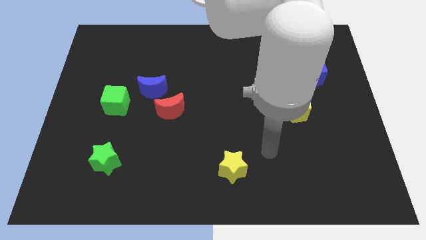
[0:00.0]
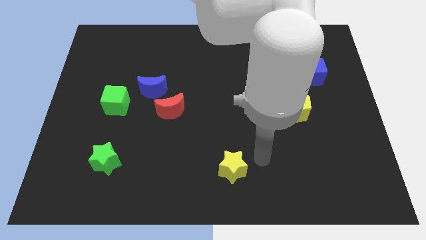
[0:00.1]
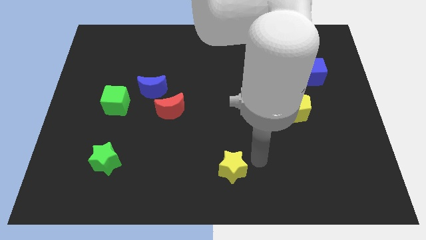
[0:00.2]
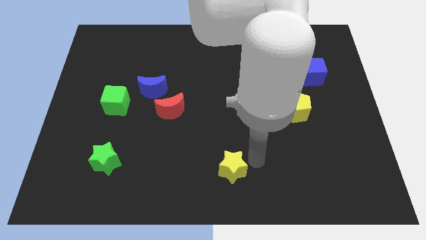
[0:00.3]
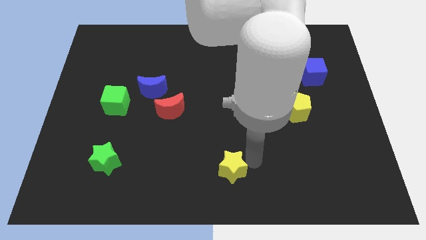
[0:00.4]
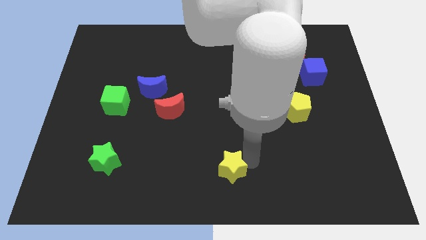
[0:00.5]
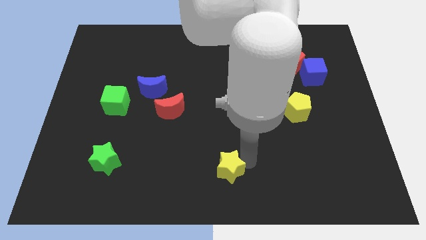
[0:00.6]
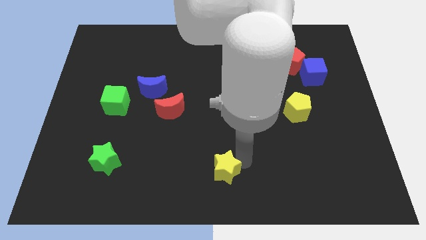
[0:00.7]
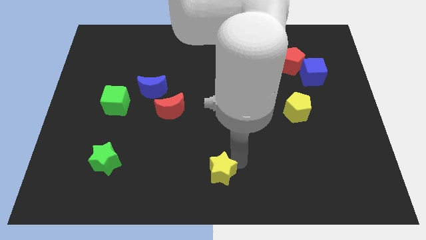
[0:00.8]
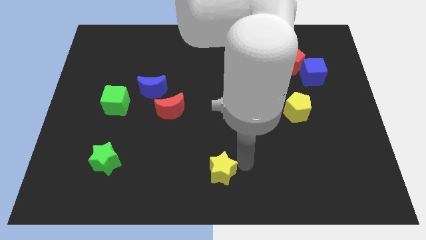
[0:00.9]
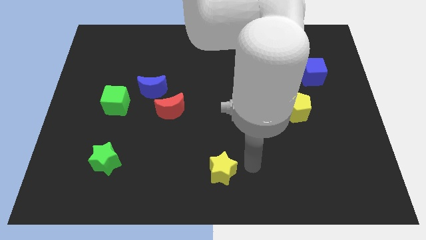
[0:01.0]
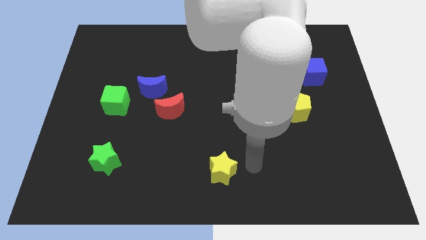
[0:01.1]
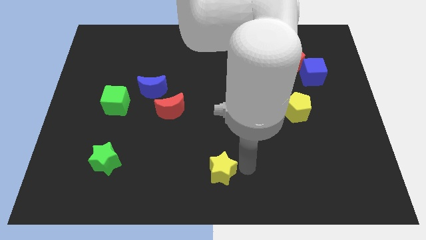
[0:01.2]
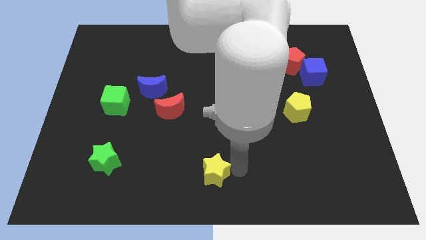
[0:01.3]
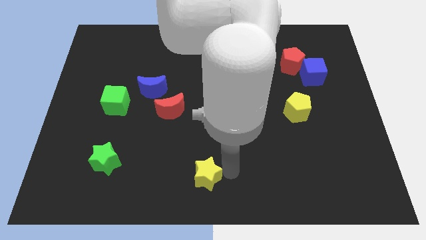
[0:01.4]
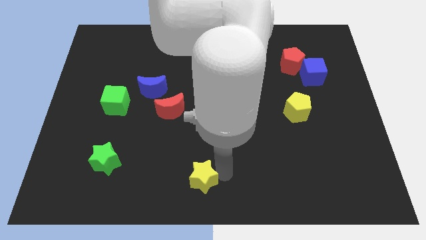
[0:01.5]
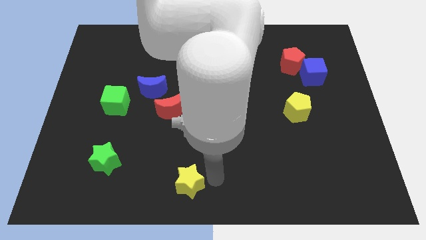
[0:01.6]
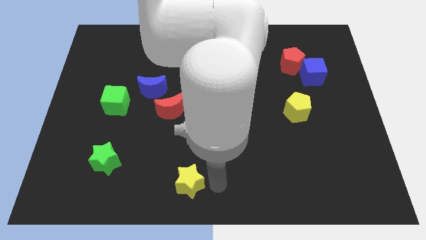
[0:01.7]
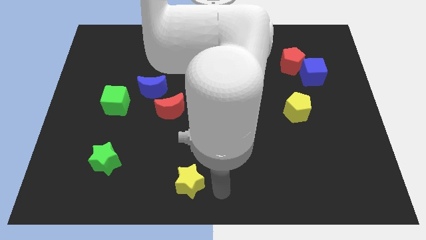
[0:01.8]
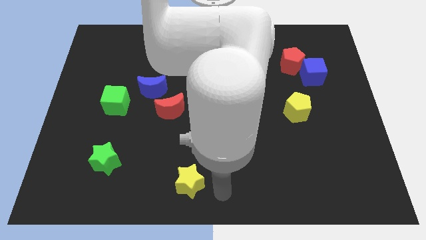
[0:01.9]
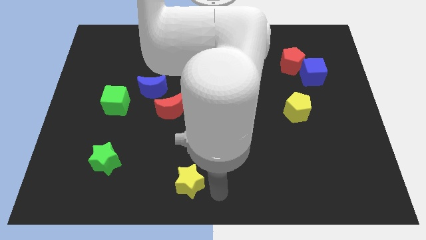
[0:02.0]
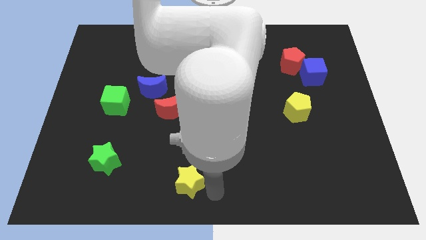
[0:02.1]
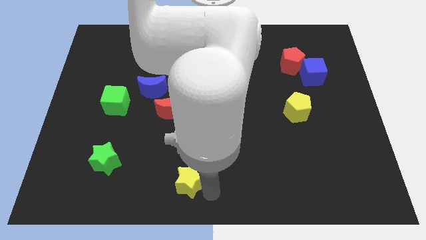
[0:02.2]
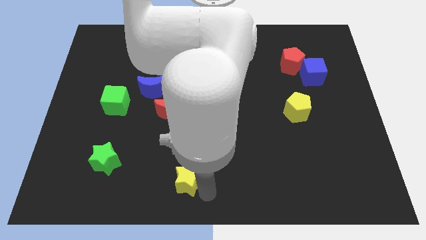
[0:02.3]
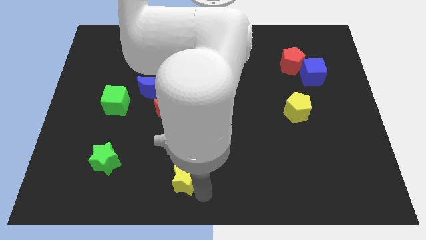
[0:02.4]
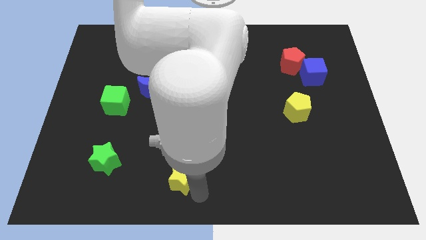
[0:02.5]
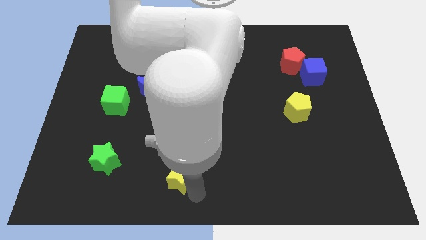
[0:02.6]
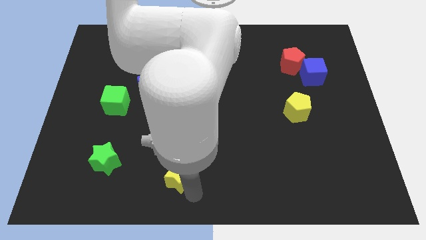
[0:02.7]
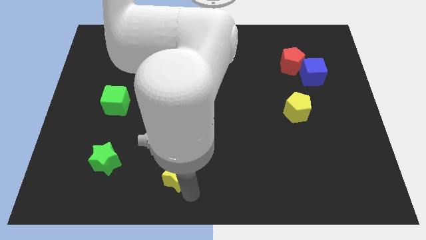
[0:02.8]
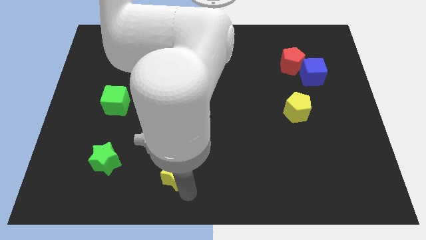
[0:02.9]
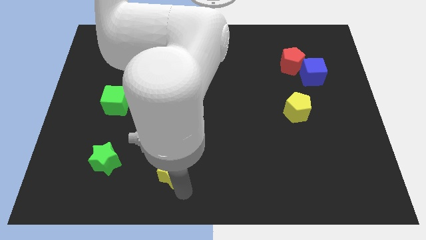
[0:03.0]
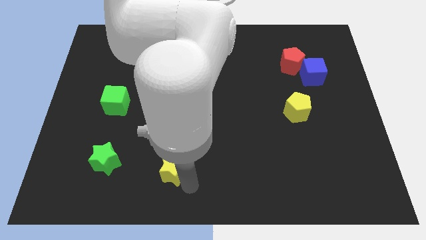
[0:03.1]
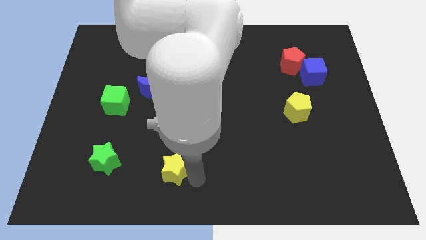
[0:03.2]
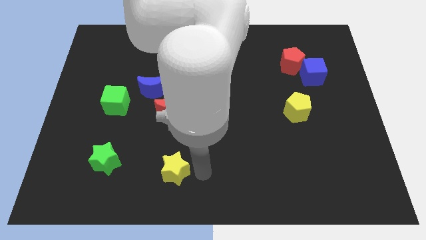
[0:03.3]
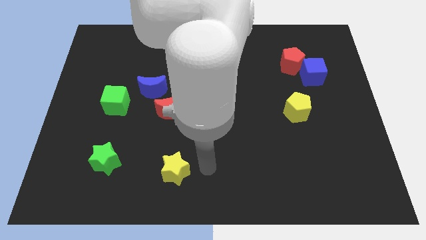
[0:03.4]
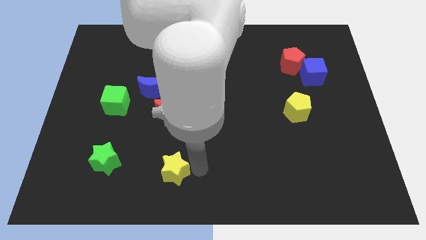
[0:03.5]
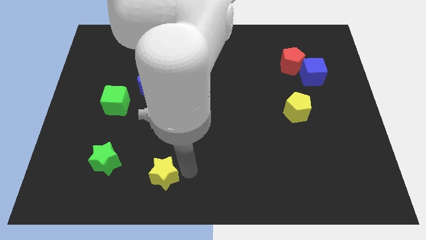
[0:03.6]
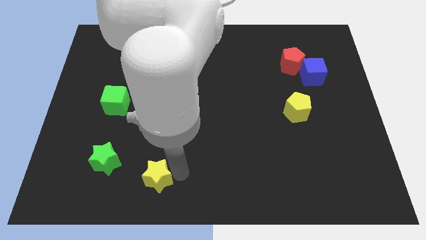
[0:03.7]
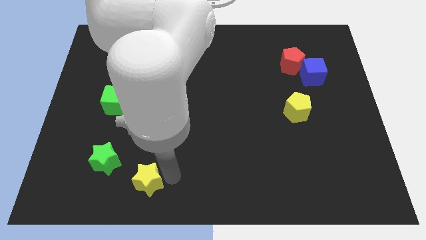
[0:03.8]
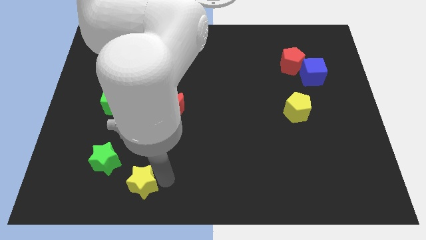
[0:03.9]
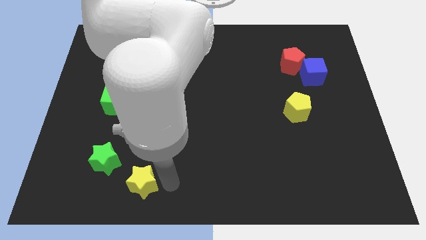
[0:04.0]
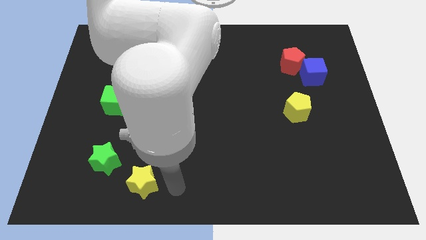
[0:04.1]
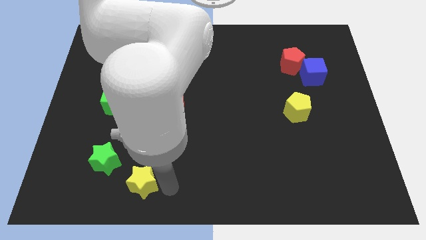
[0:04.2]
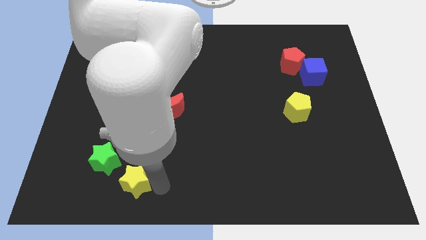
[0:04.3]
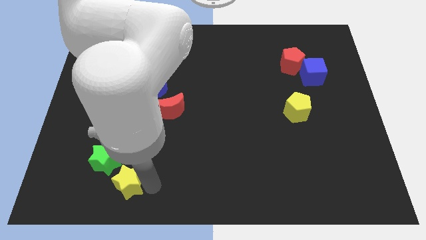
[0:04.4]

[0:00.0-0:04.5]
move the yellow star left

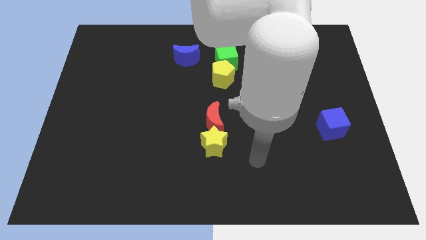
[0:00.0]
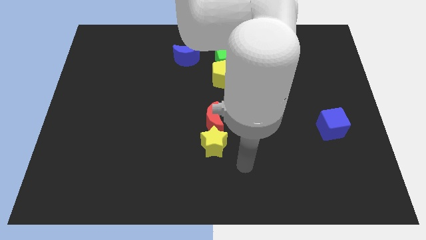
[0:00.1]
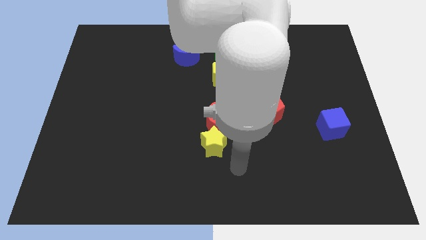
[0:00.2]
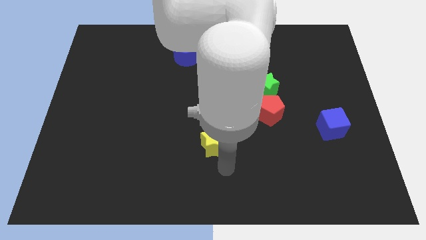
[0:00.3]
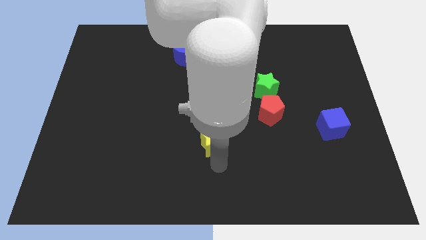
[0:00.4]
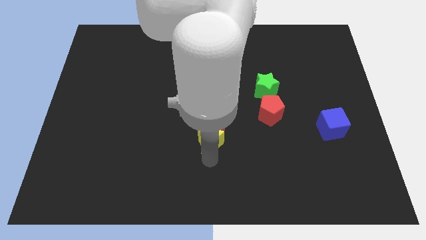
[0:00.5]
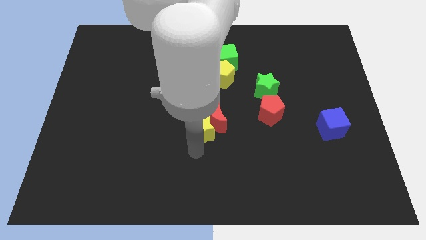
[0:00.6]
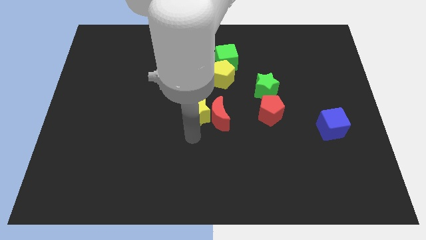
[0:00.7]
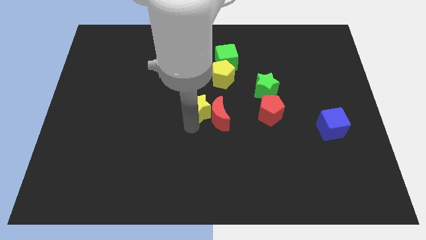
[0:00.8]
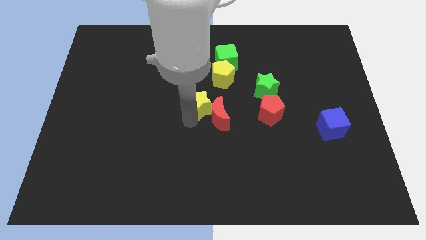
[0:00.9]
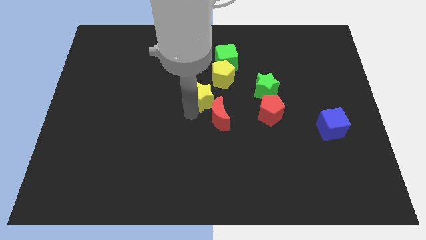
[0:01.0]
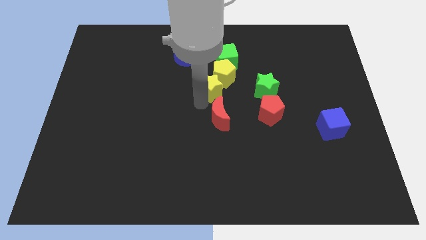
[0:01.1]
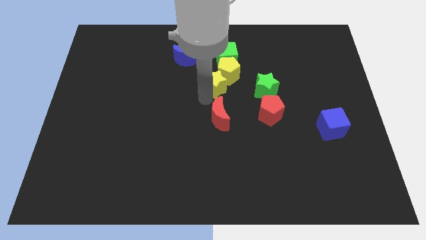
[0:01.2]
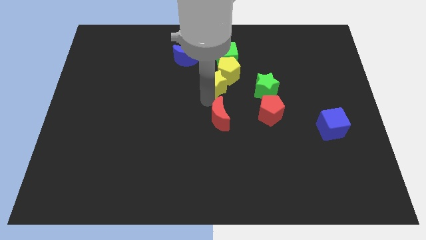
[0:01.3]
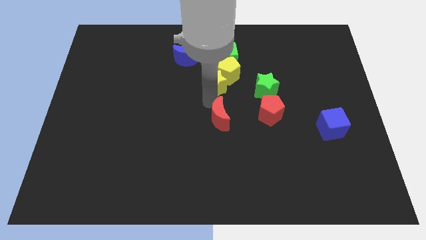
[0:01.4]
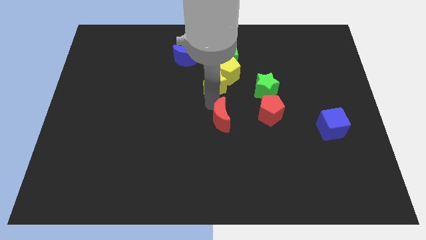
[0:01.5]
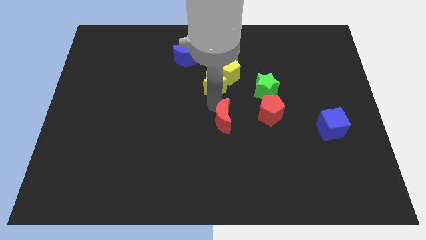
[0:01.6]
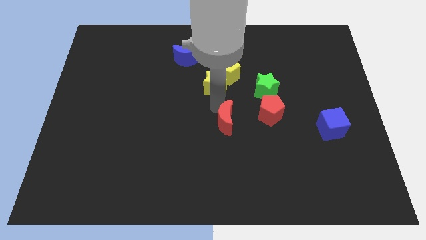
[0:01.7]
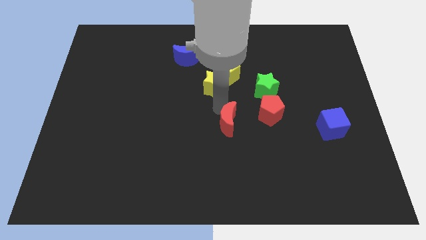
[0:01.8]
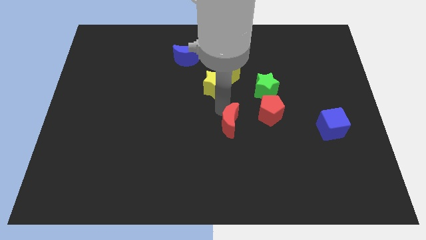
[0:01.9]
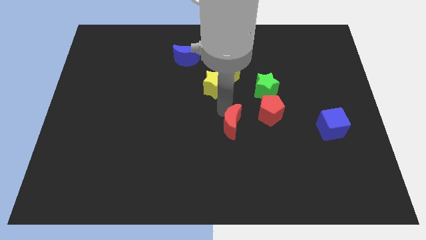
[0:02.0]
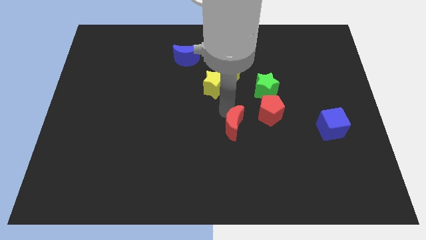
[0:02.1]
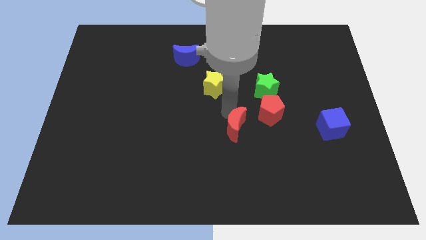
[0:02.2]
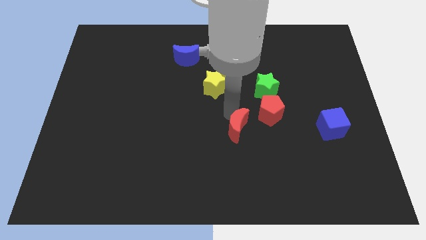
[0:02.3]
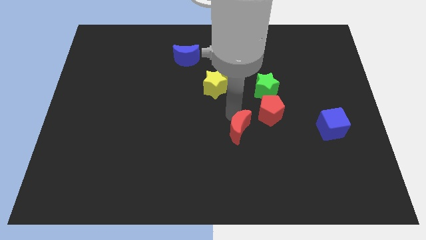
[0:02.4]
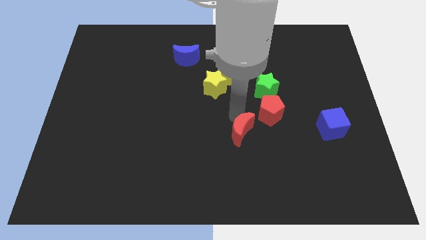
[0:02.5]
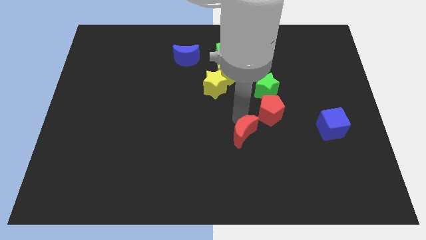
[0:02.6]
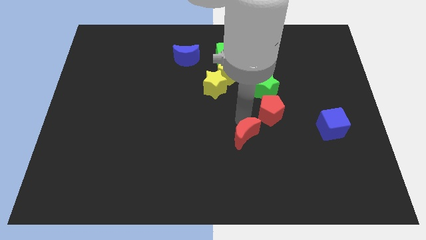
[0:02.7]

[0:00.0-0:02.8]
slightly move the red moon downwards and then to the right

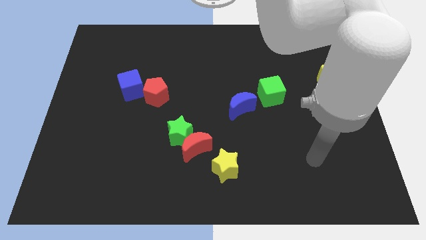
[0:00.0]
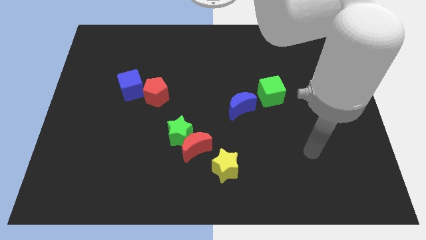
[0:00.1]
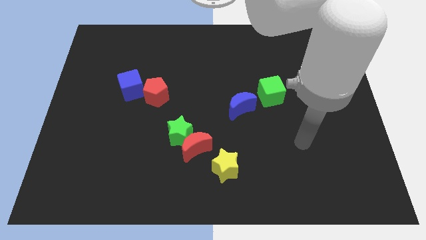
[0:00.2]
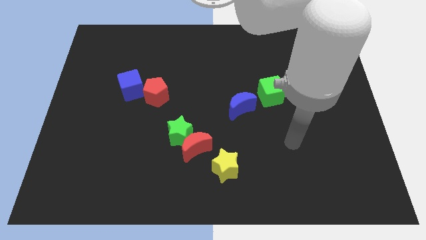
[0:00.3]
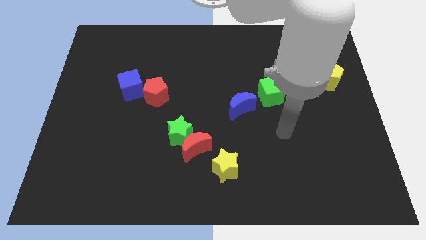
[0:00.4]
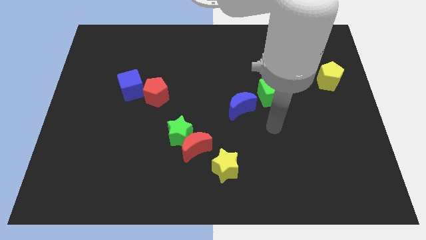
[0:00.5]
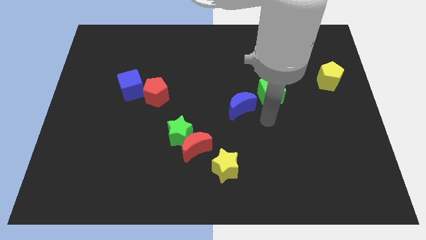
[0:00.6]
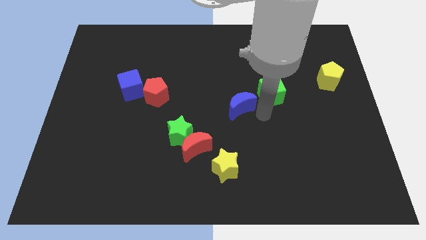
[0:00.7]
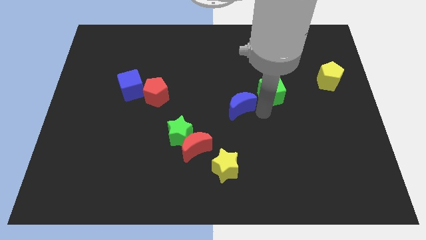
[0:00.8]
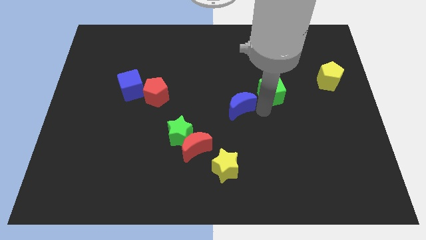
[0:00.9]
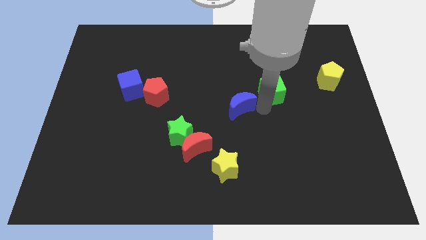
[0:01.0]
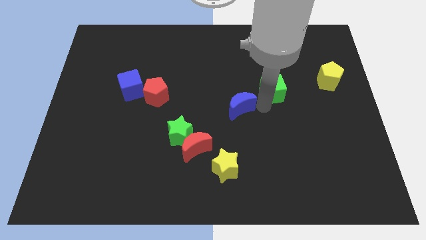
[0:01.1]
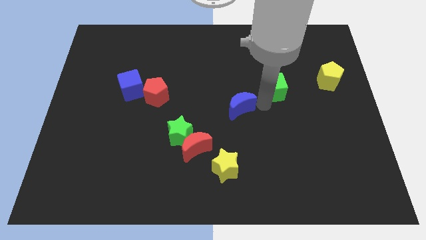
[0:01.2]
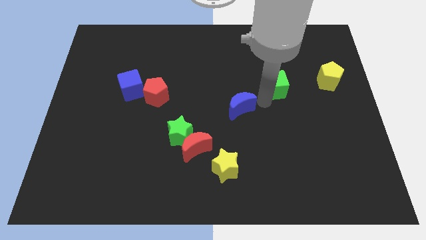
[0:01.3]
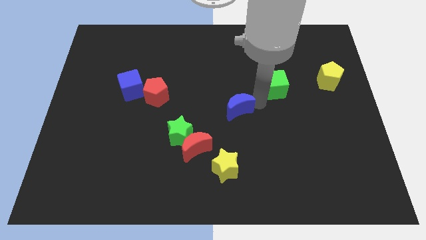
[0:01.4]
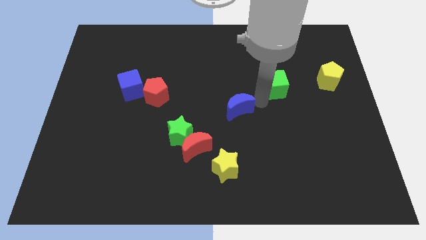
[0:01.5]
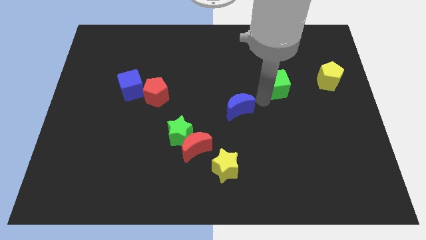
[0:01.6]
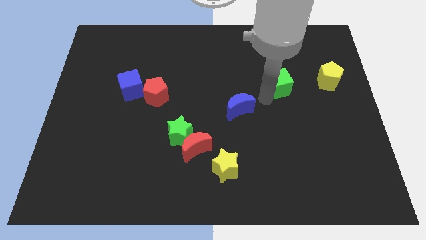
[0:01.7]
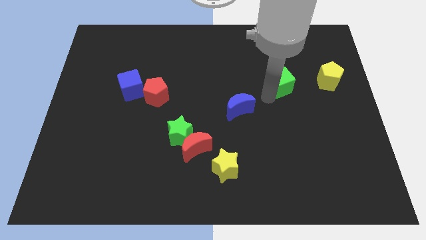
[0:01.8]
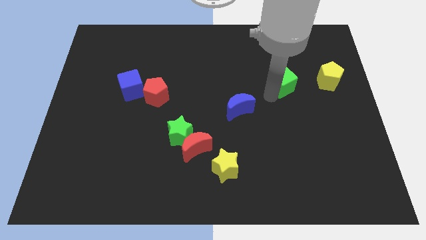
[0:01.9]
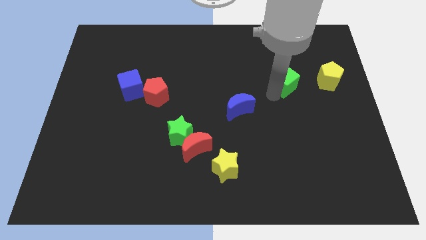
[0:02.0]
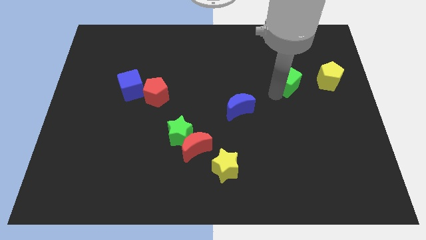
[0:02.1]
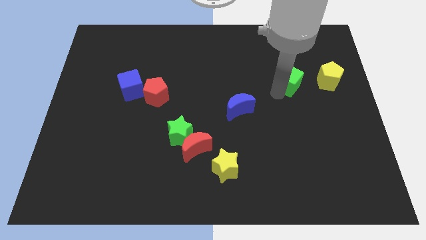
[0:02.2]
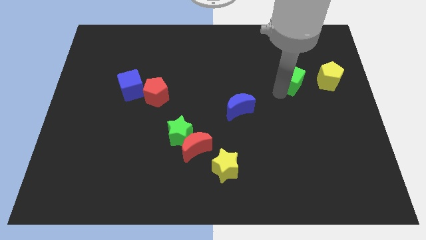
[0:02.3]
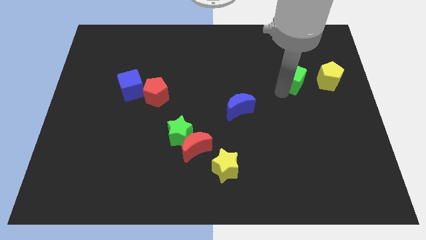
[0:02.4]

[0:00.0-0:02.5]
push the green cube up and to the right diagonally slightly
